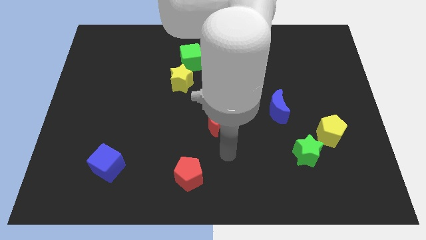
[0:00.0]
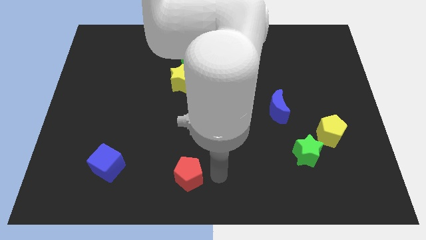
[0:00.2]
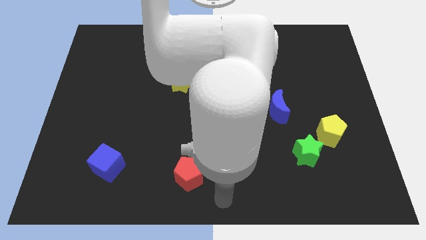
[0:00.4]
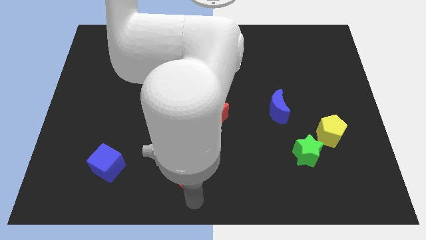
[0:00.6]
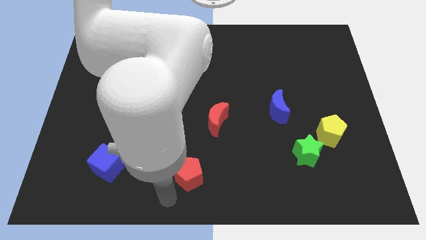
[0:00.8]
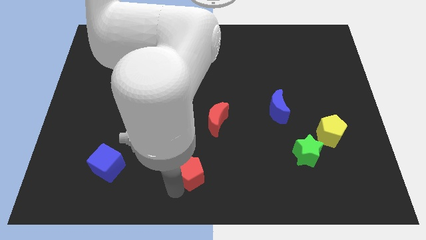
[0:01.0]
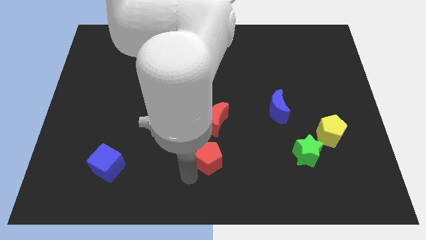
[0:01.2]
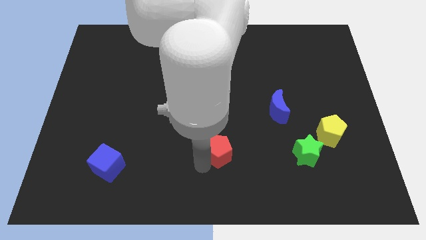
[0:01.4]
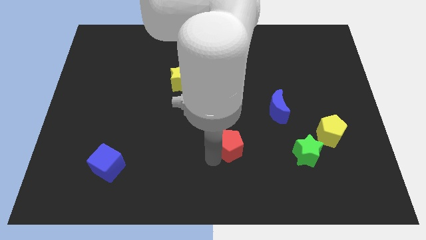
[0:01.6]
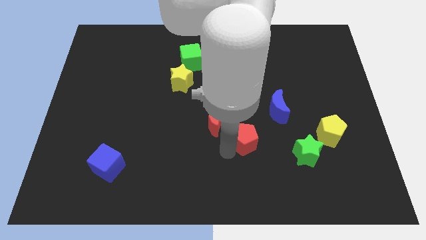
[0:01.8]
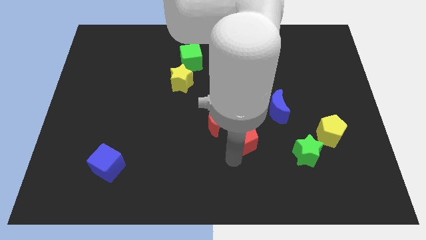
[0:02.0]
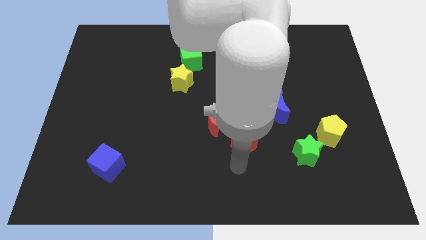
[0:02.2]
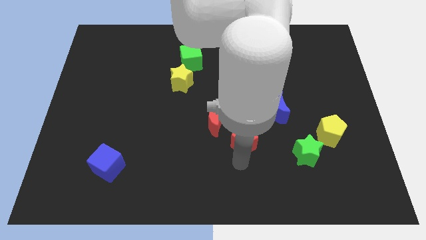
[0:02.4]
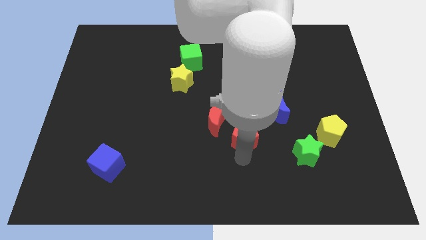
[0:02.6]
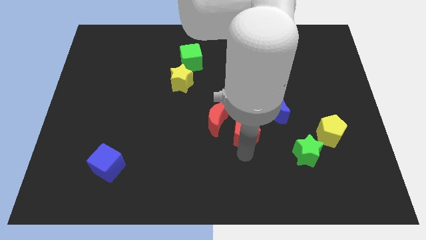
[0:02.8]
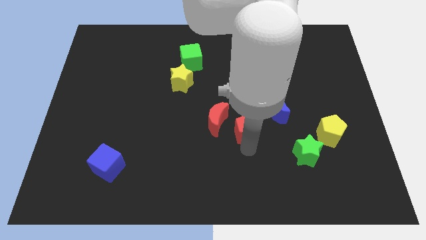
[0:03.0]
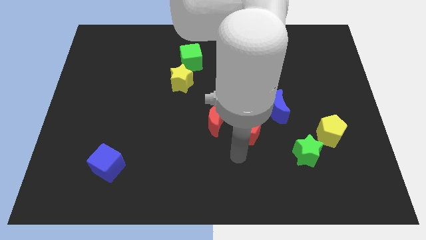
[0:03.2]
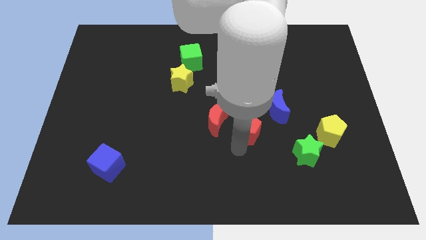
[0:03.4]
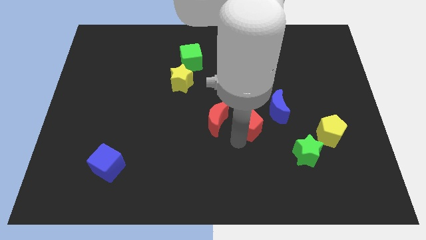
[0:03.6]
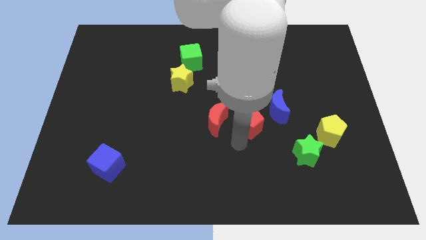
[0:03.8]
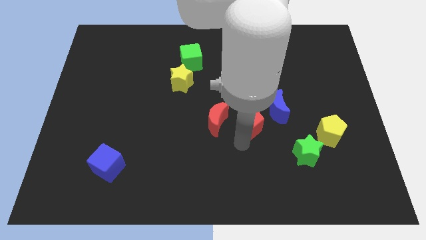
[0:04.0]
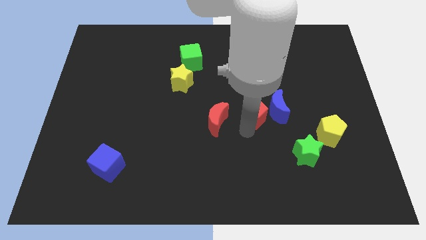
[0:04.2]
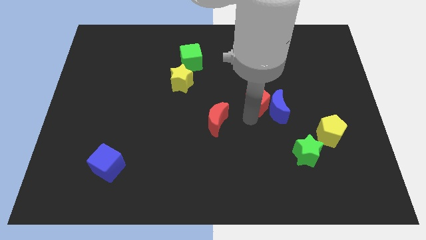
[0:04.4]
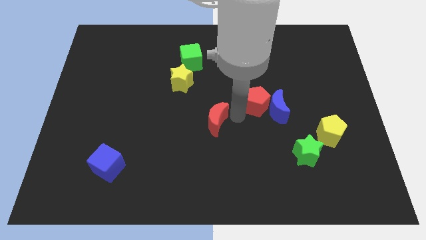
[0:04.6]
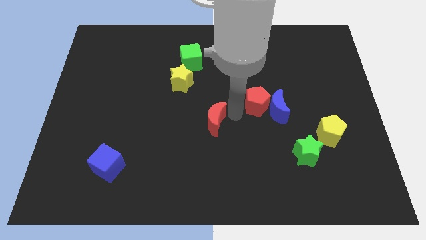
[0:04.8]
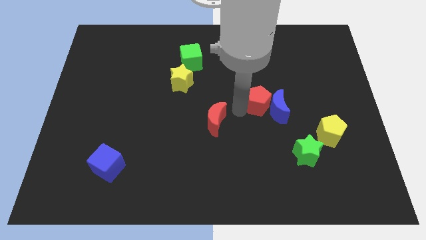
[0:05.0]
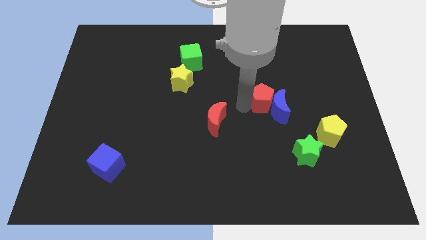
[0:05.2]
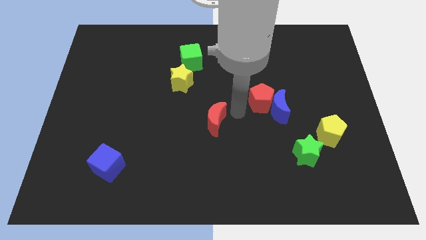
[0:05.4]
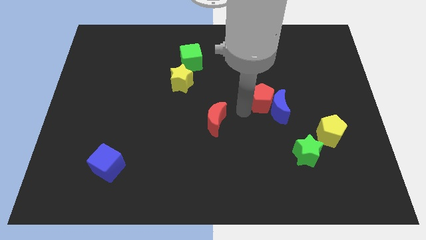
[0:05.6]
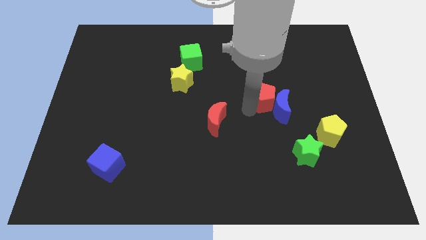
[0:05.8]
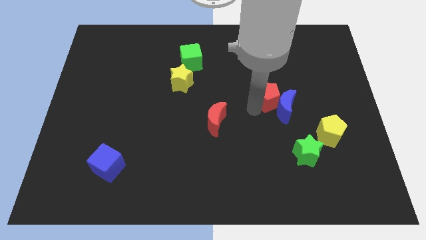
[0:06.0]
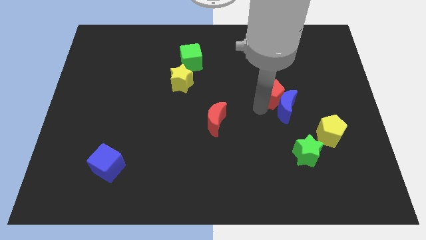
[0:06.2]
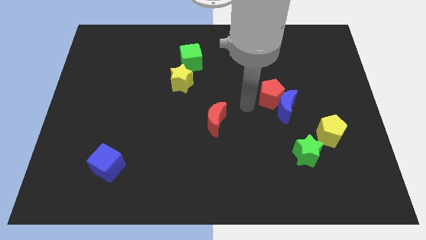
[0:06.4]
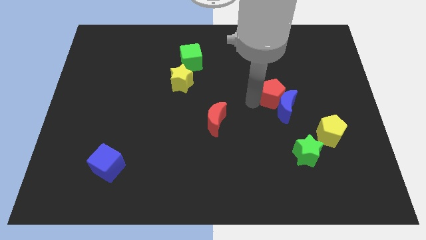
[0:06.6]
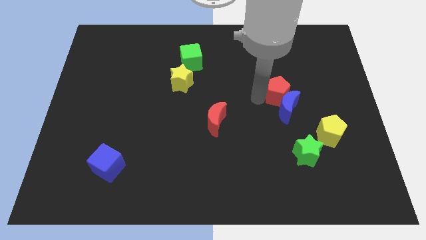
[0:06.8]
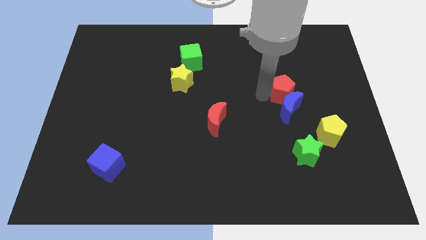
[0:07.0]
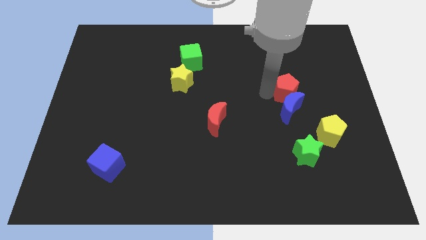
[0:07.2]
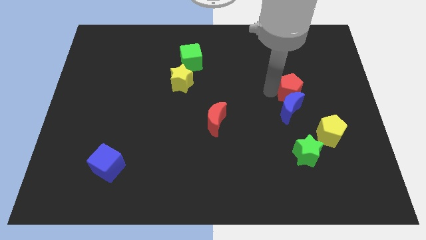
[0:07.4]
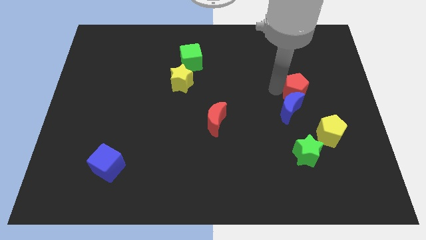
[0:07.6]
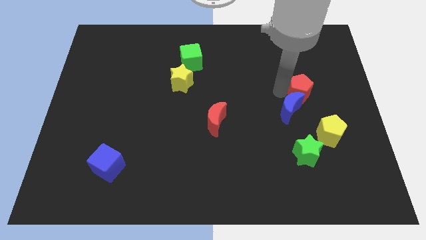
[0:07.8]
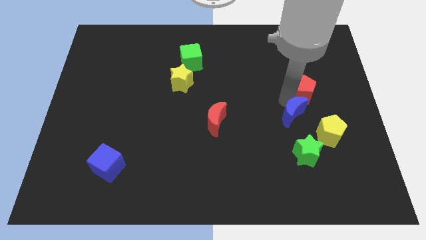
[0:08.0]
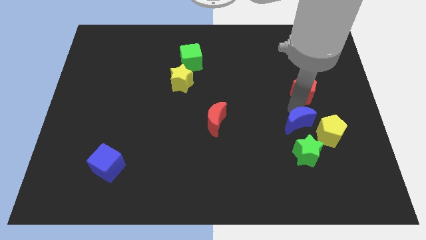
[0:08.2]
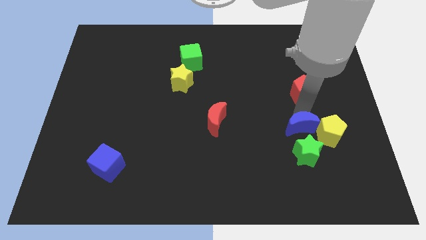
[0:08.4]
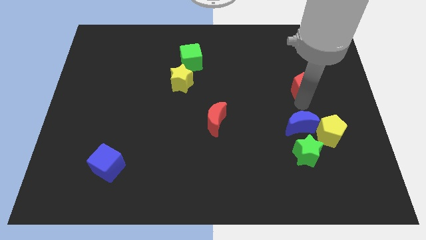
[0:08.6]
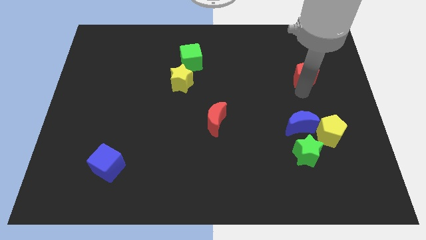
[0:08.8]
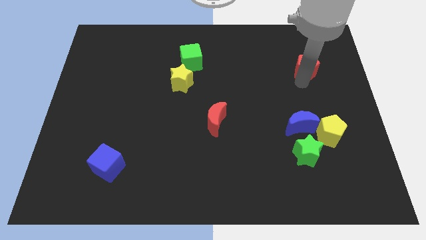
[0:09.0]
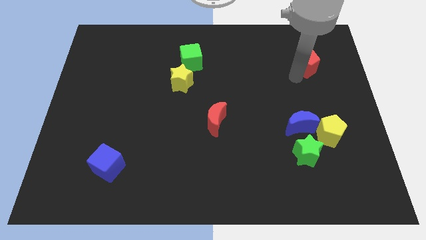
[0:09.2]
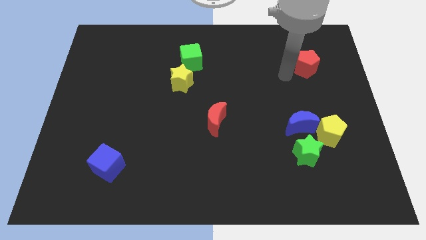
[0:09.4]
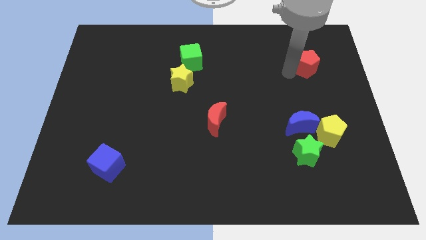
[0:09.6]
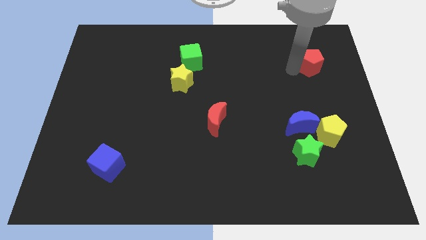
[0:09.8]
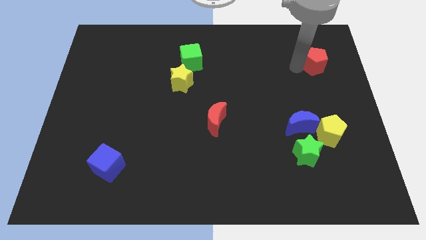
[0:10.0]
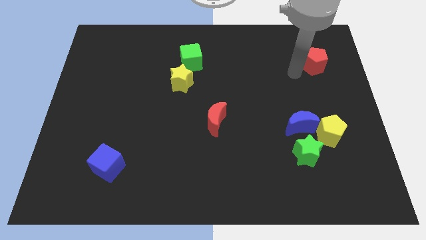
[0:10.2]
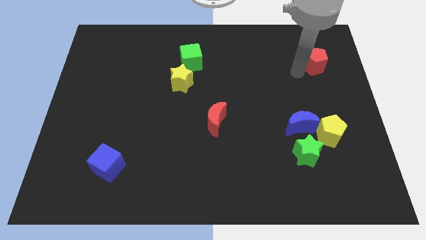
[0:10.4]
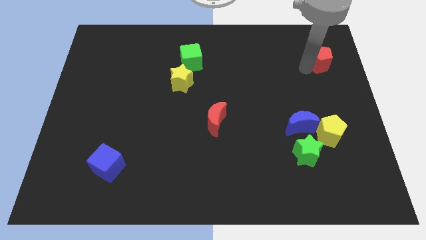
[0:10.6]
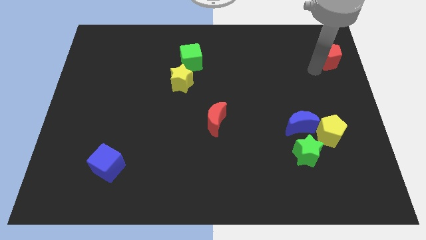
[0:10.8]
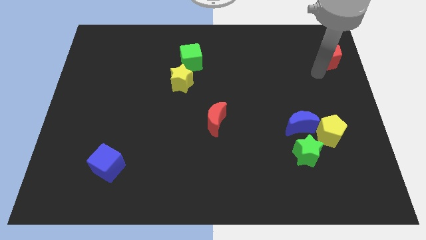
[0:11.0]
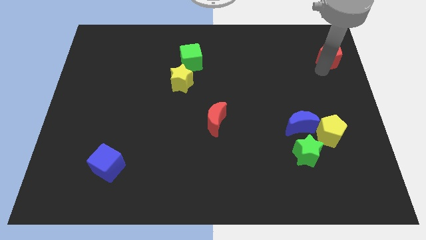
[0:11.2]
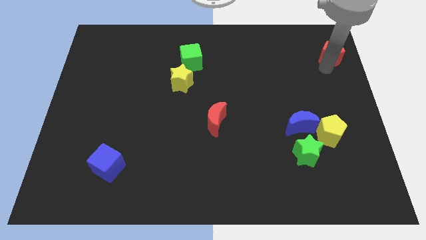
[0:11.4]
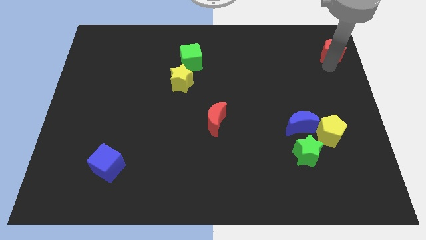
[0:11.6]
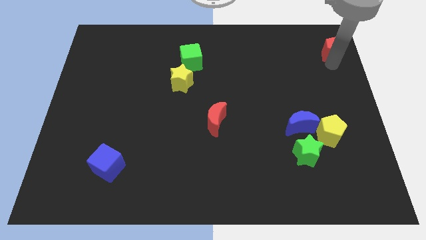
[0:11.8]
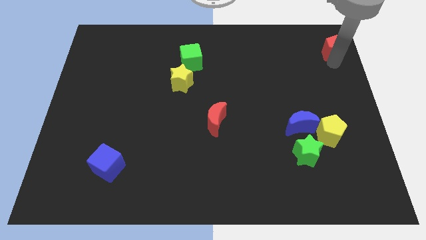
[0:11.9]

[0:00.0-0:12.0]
push the red pentagon to the top right corner
